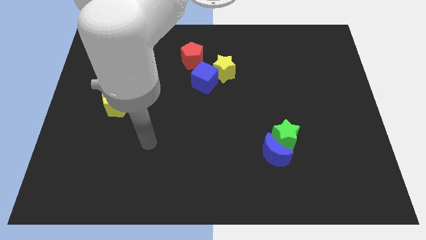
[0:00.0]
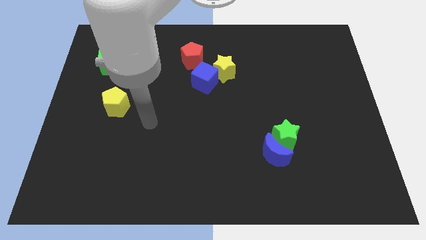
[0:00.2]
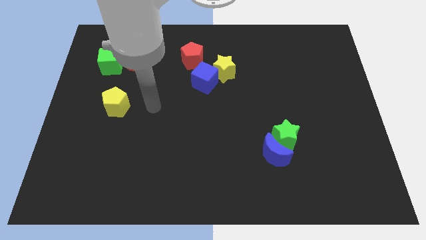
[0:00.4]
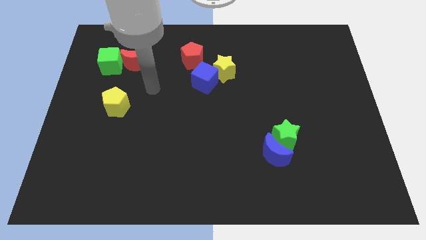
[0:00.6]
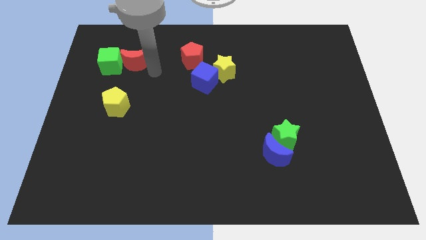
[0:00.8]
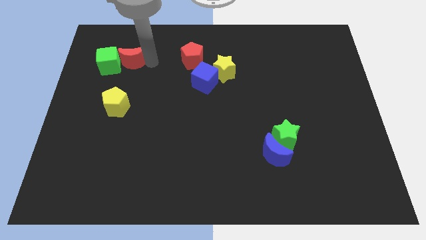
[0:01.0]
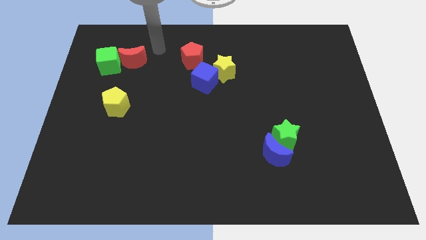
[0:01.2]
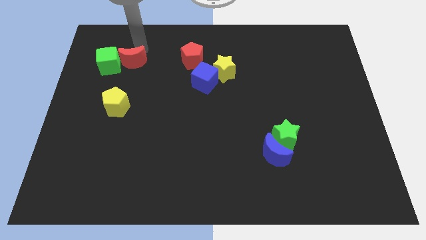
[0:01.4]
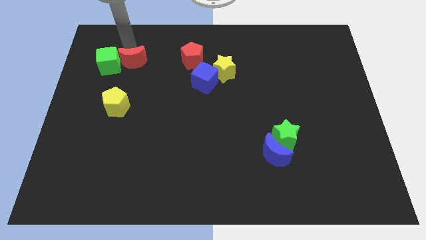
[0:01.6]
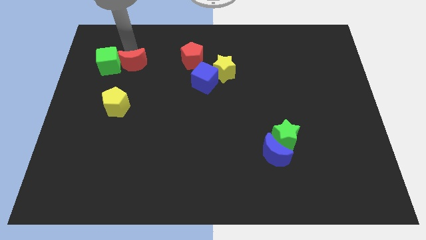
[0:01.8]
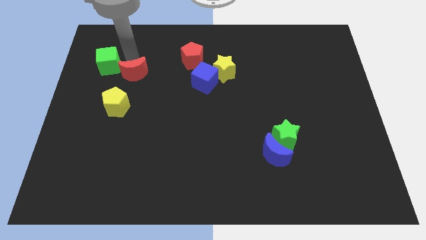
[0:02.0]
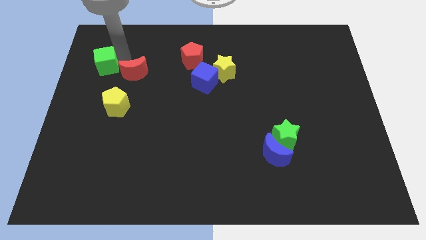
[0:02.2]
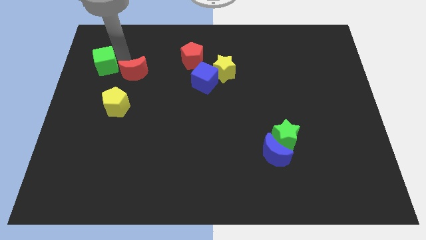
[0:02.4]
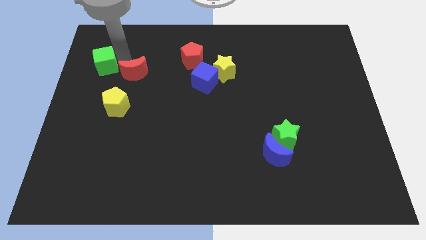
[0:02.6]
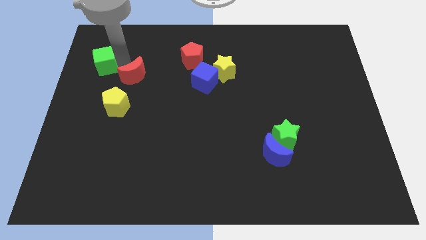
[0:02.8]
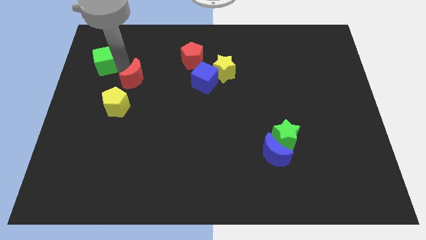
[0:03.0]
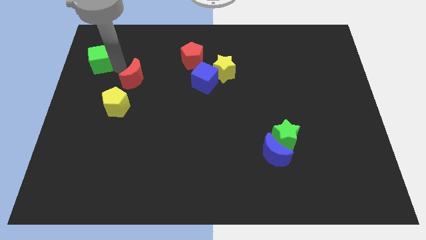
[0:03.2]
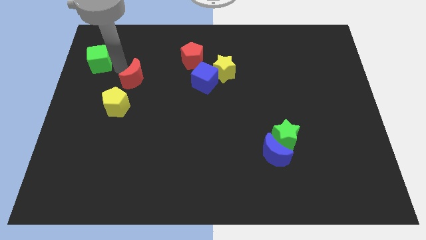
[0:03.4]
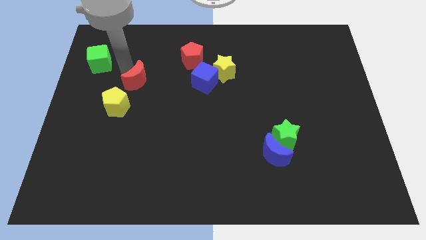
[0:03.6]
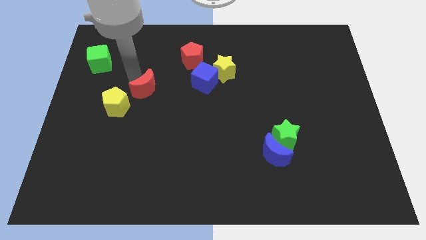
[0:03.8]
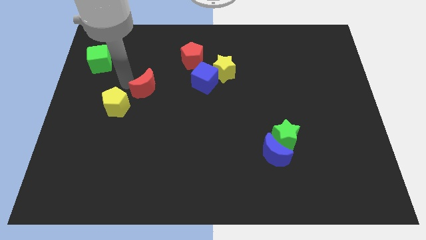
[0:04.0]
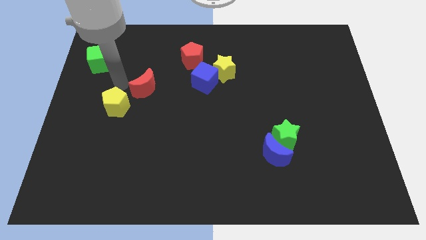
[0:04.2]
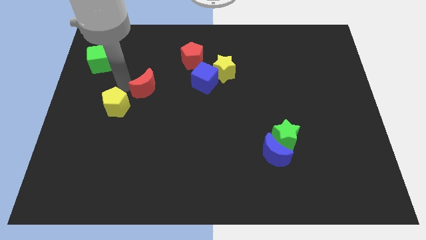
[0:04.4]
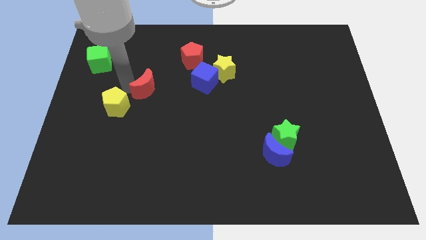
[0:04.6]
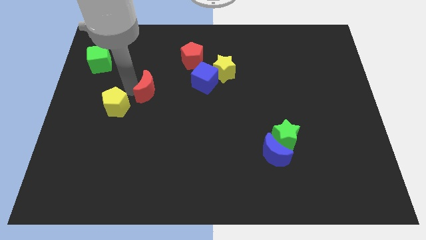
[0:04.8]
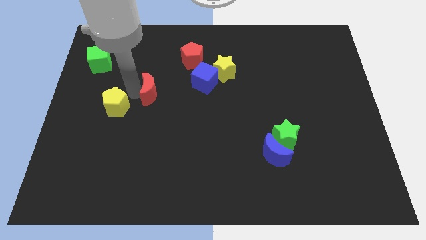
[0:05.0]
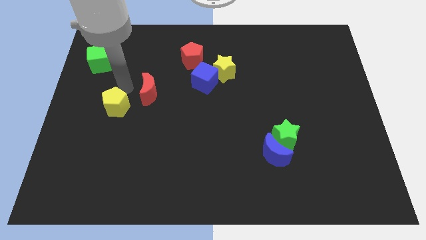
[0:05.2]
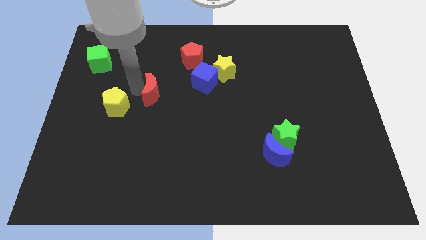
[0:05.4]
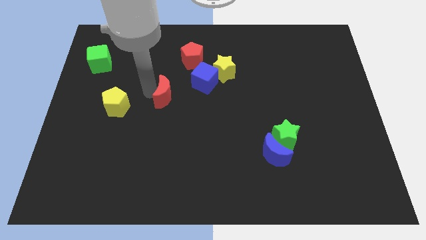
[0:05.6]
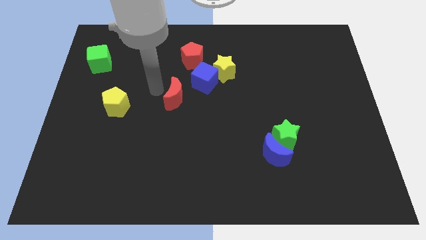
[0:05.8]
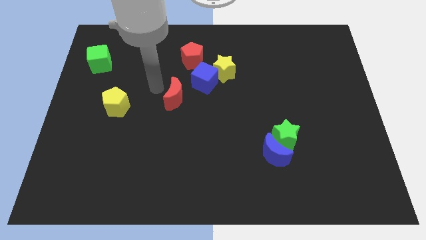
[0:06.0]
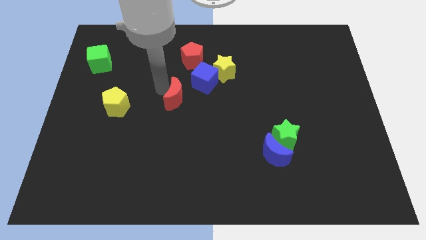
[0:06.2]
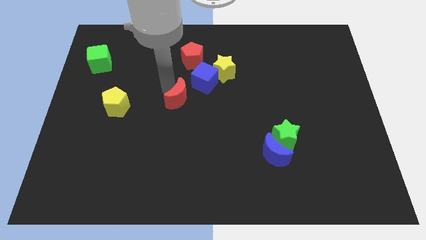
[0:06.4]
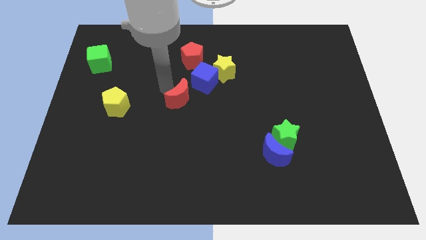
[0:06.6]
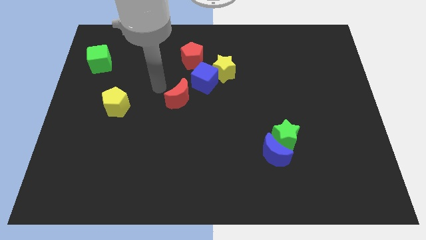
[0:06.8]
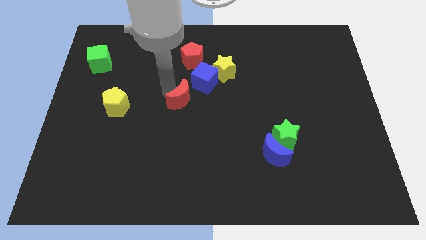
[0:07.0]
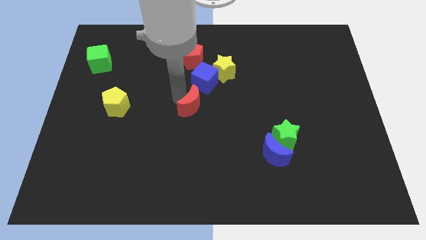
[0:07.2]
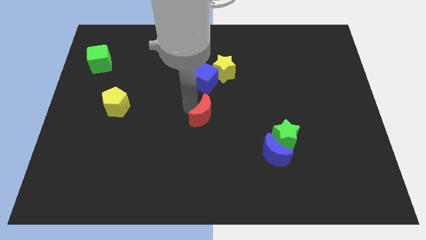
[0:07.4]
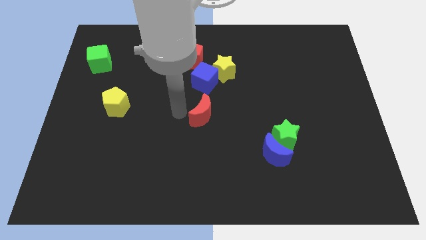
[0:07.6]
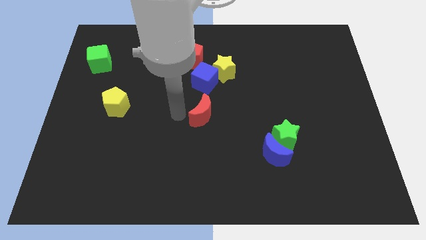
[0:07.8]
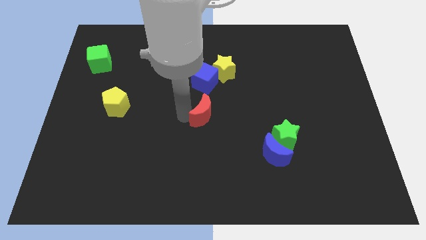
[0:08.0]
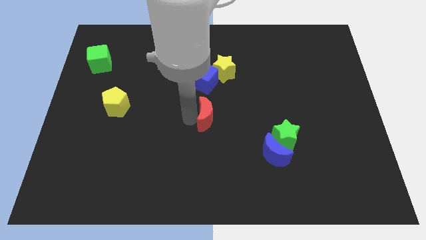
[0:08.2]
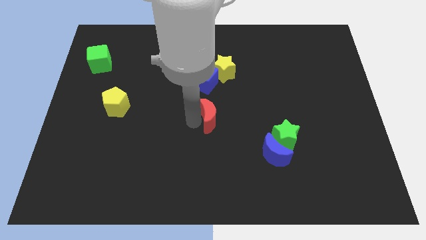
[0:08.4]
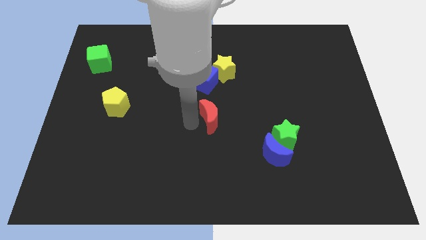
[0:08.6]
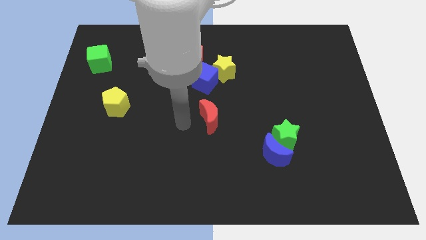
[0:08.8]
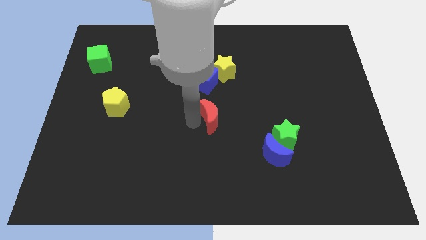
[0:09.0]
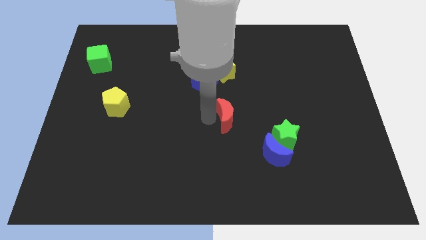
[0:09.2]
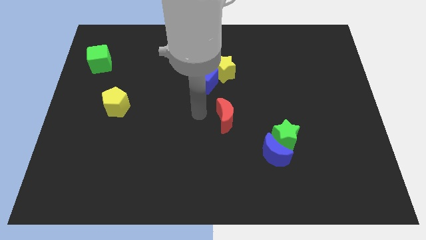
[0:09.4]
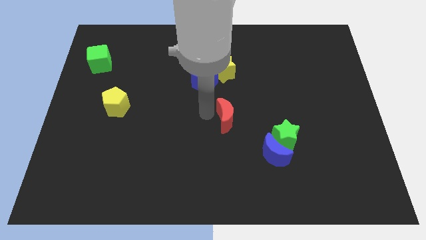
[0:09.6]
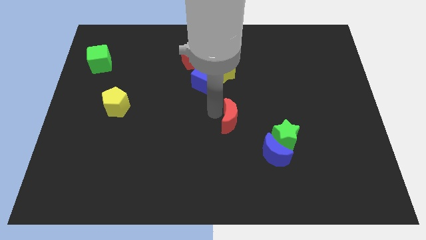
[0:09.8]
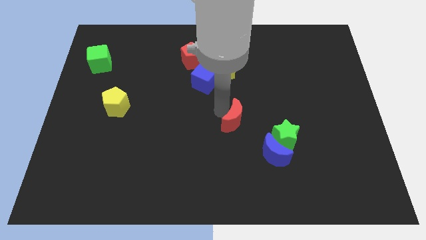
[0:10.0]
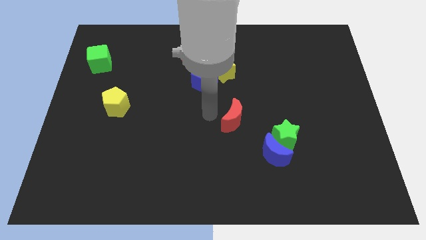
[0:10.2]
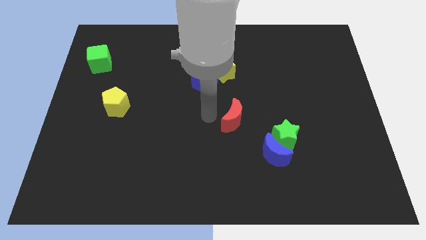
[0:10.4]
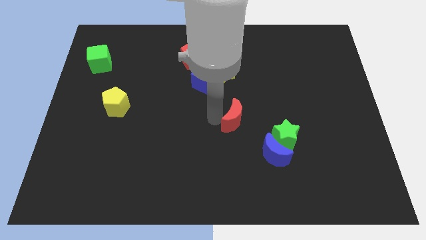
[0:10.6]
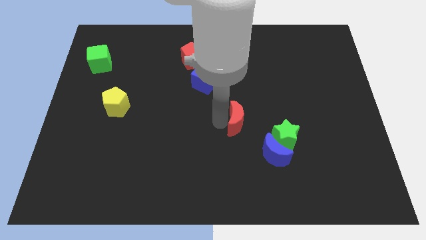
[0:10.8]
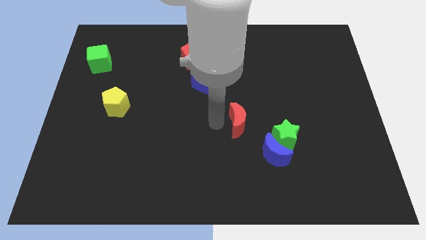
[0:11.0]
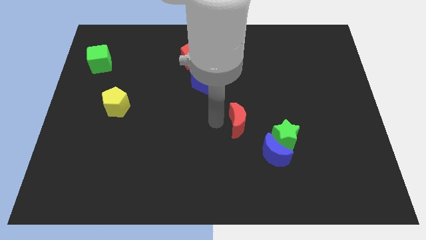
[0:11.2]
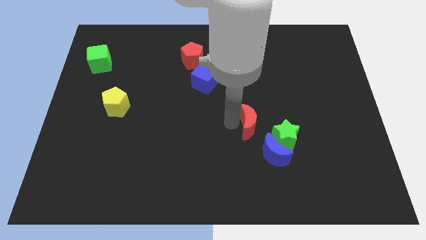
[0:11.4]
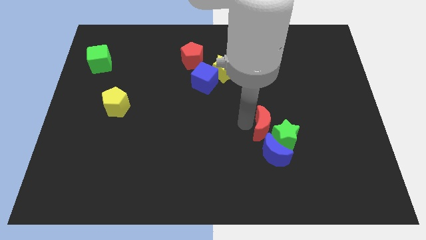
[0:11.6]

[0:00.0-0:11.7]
put the red moon to the green star

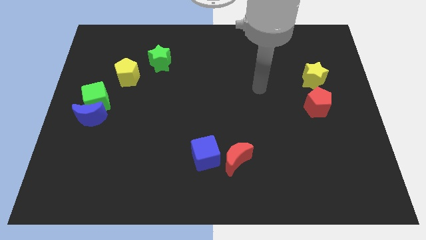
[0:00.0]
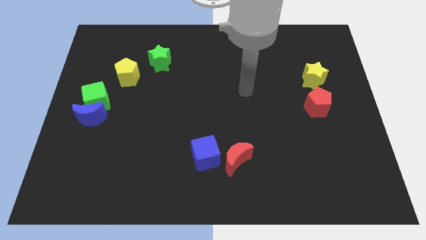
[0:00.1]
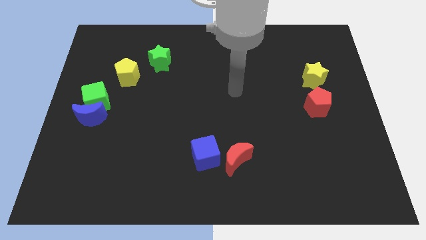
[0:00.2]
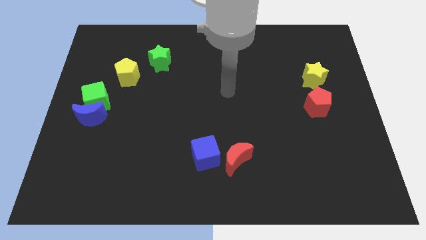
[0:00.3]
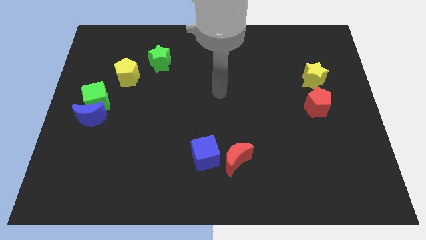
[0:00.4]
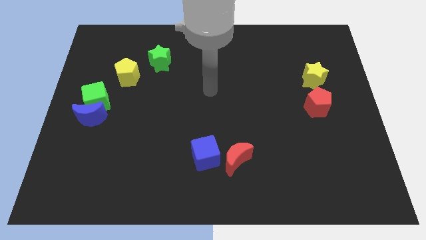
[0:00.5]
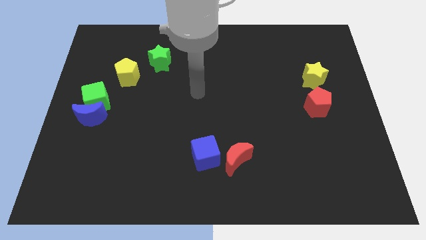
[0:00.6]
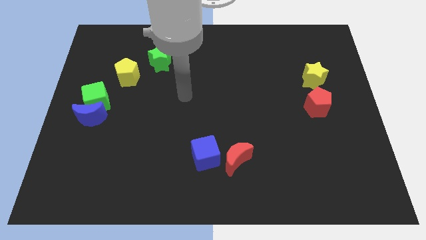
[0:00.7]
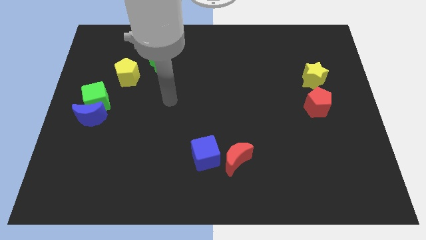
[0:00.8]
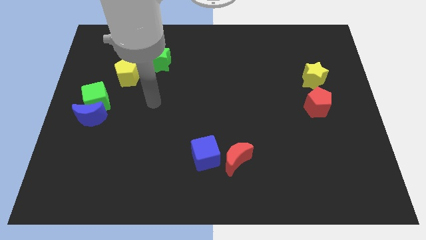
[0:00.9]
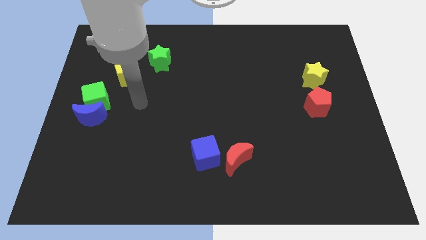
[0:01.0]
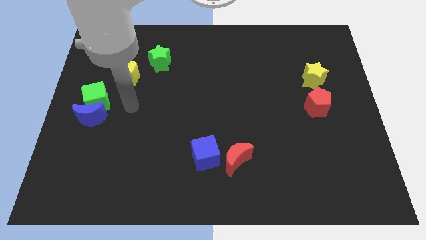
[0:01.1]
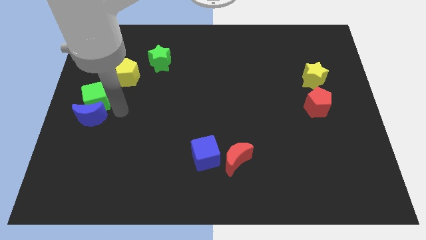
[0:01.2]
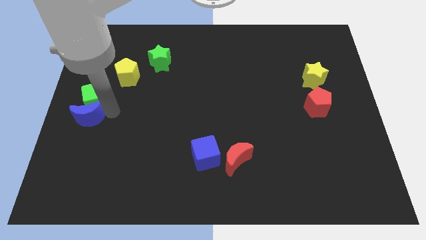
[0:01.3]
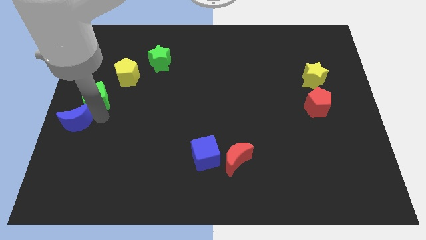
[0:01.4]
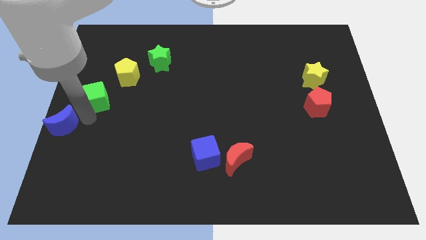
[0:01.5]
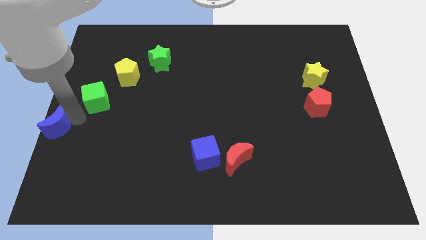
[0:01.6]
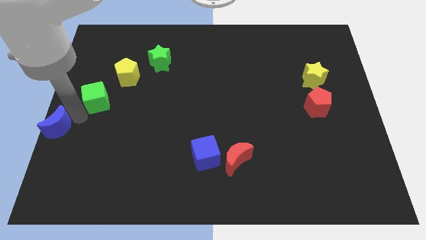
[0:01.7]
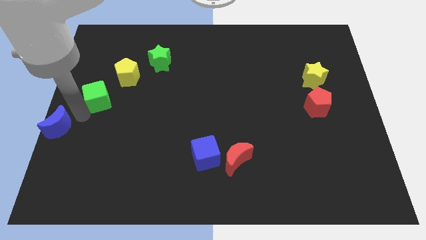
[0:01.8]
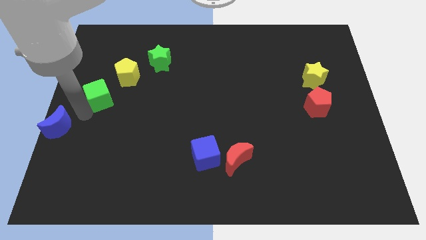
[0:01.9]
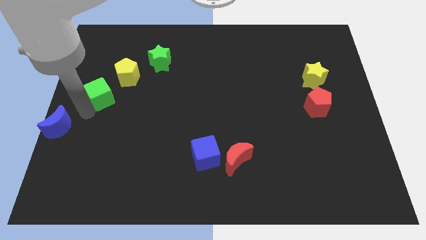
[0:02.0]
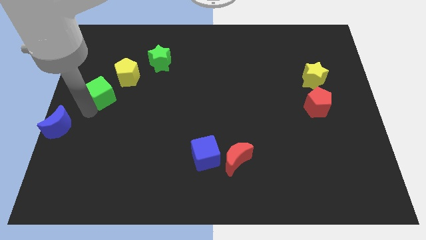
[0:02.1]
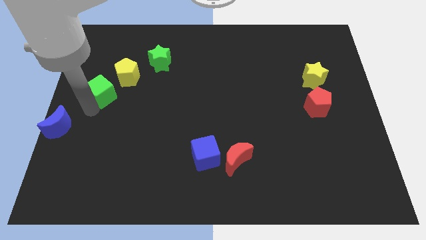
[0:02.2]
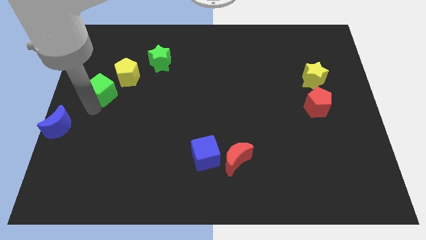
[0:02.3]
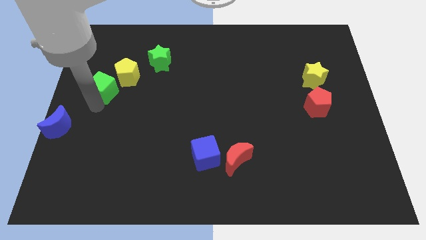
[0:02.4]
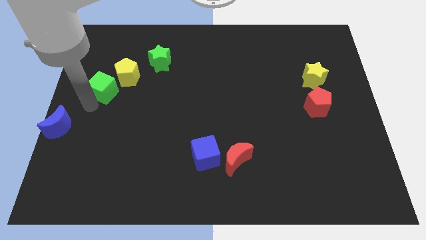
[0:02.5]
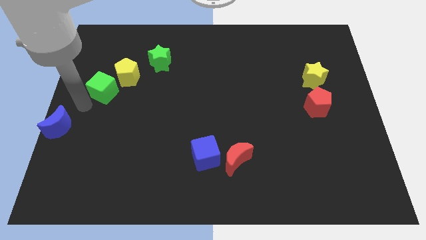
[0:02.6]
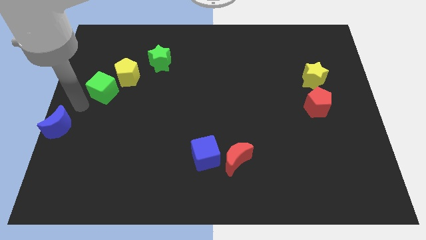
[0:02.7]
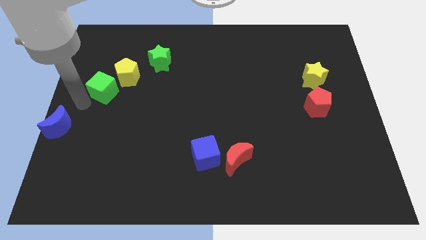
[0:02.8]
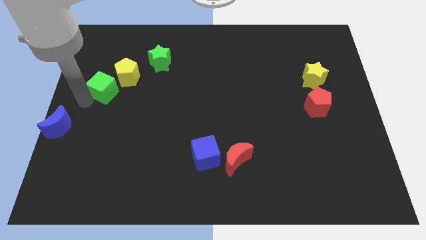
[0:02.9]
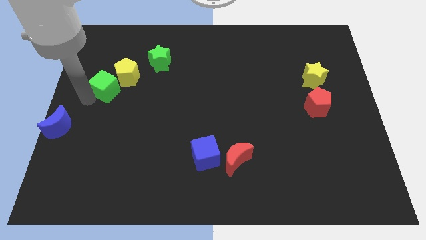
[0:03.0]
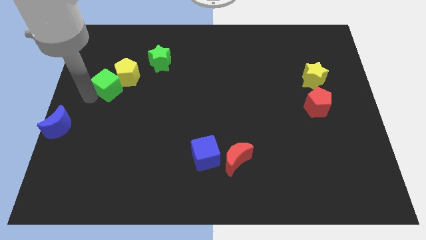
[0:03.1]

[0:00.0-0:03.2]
slide the green cube to the yellow pentagon
